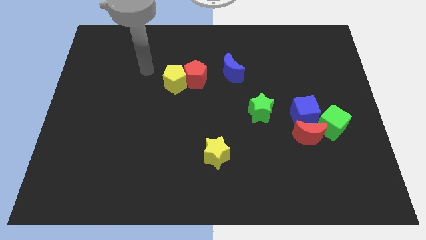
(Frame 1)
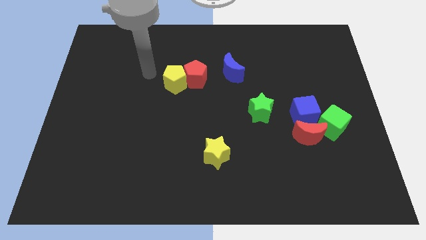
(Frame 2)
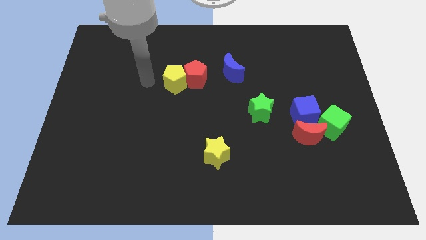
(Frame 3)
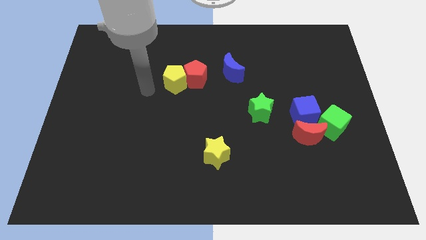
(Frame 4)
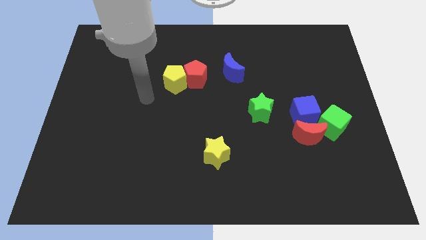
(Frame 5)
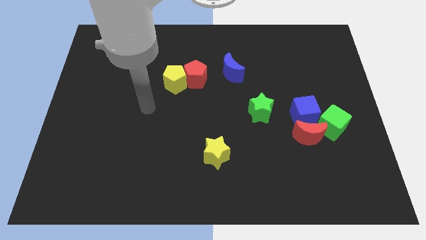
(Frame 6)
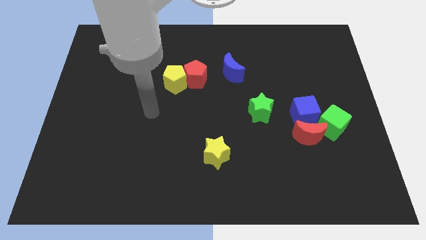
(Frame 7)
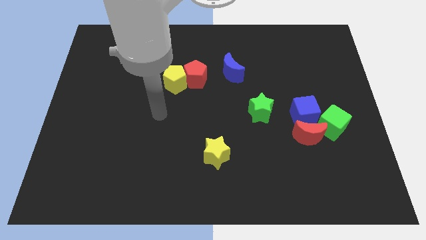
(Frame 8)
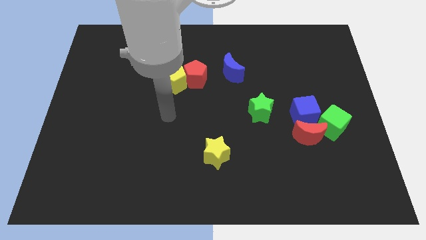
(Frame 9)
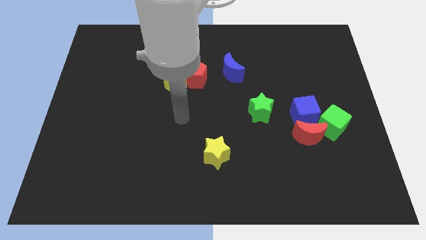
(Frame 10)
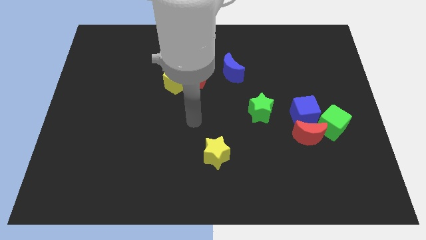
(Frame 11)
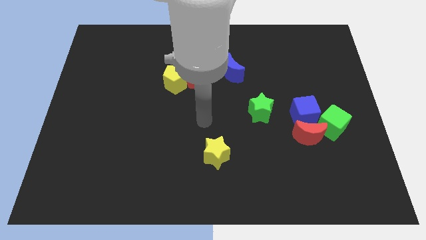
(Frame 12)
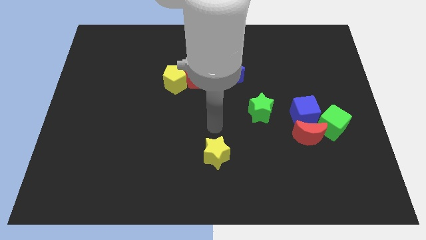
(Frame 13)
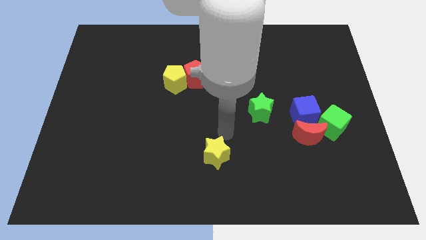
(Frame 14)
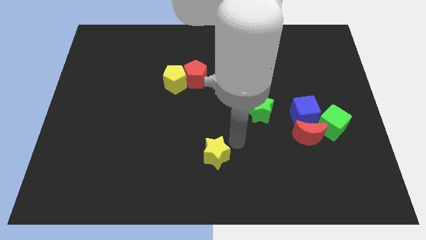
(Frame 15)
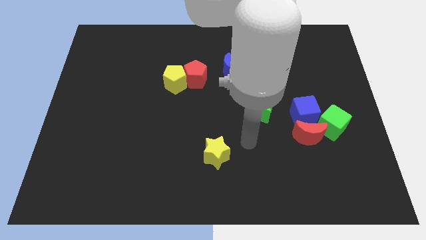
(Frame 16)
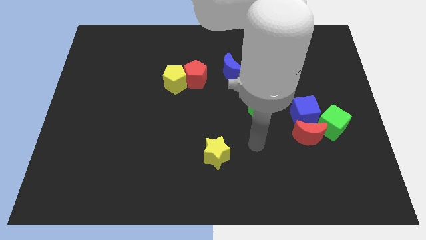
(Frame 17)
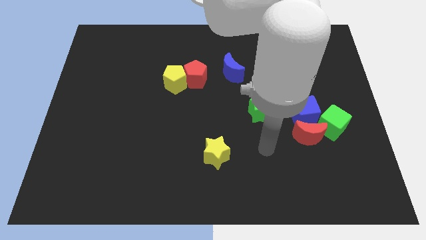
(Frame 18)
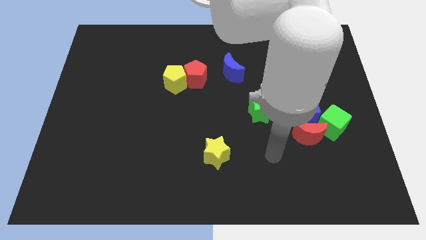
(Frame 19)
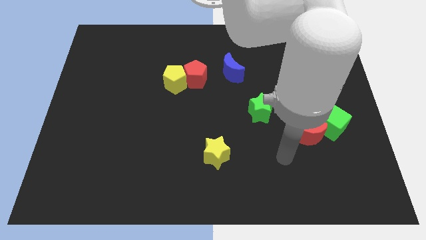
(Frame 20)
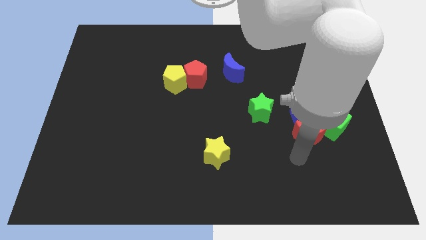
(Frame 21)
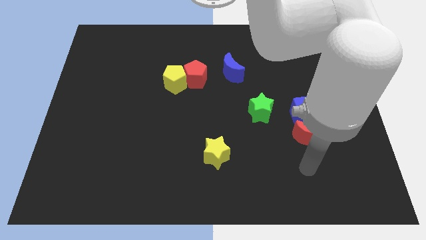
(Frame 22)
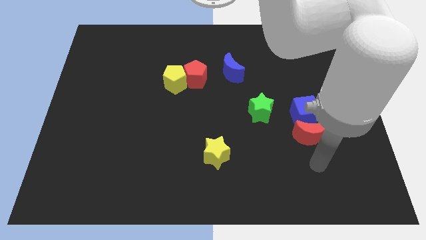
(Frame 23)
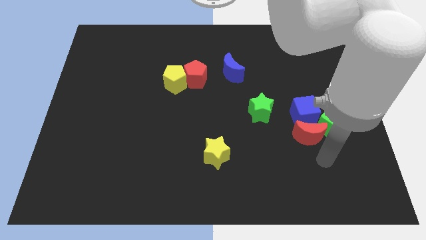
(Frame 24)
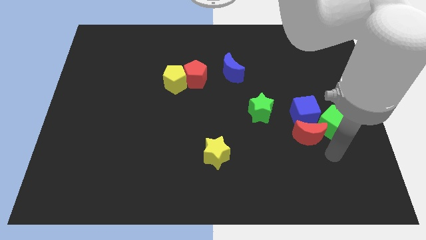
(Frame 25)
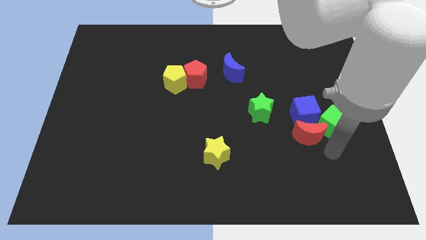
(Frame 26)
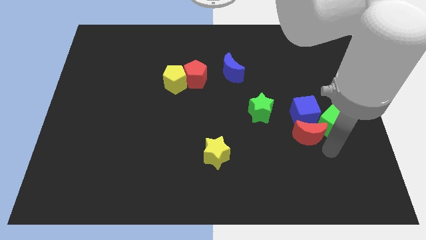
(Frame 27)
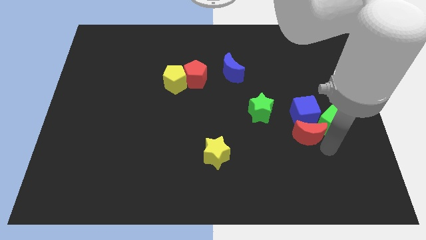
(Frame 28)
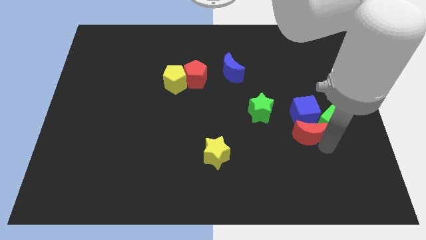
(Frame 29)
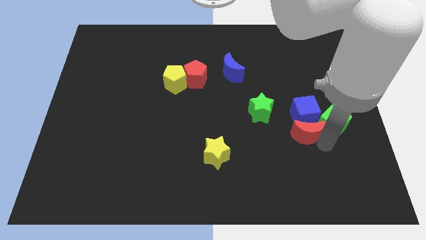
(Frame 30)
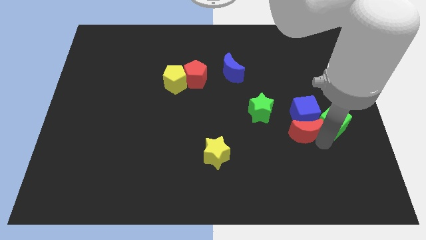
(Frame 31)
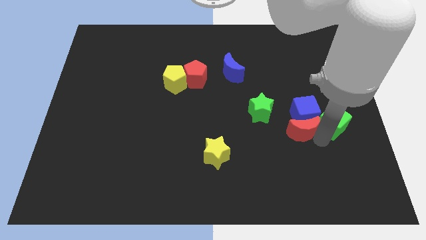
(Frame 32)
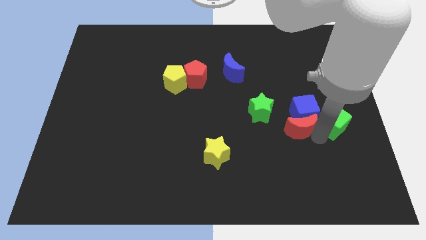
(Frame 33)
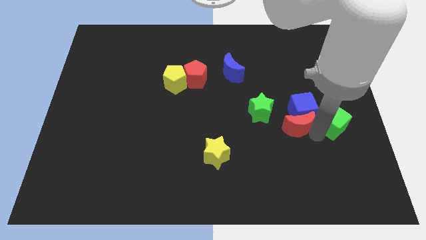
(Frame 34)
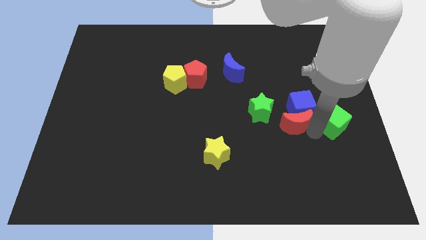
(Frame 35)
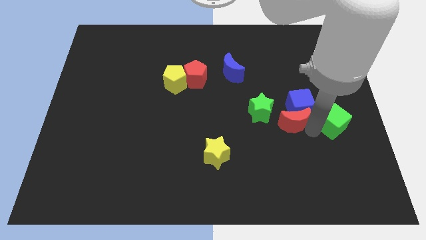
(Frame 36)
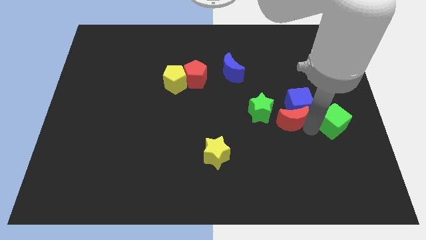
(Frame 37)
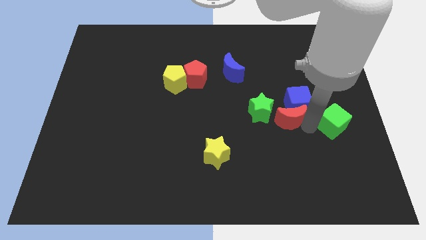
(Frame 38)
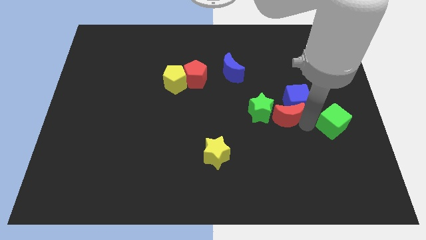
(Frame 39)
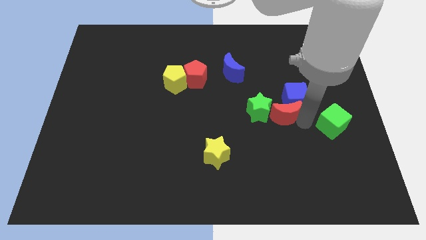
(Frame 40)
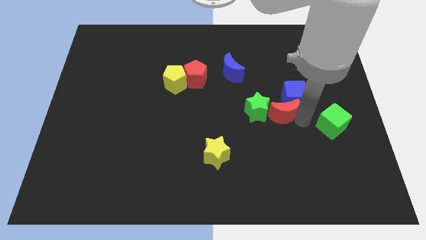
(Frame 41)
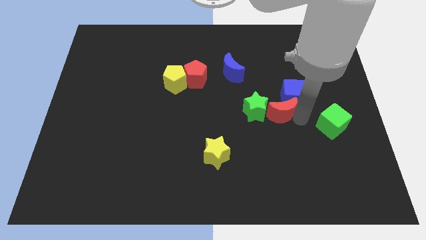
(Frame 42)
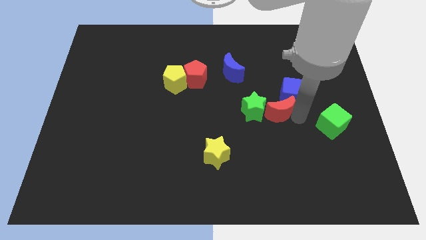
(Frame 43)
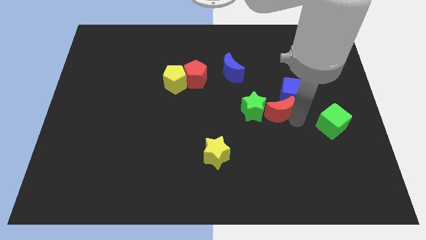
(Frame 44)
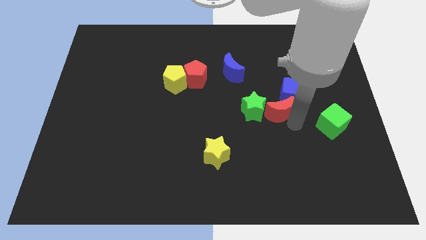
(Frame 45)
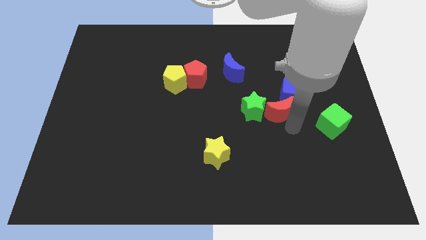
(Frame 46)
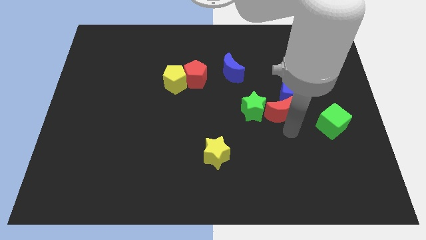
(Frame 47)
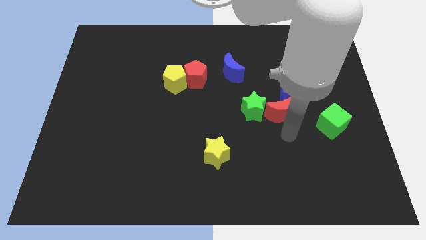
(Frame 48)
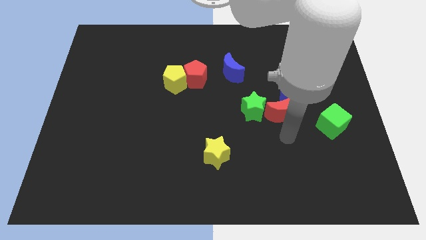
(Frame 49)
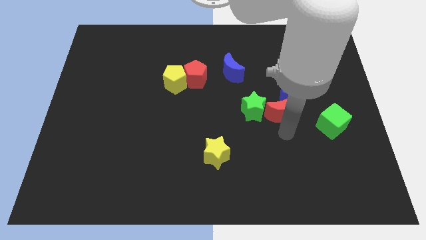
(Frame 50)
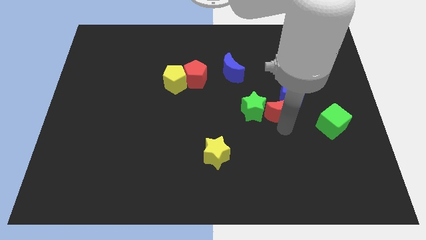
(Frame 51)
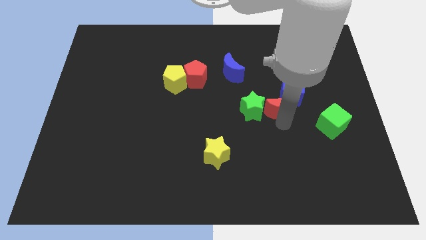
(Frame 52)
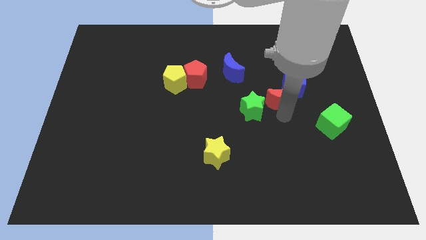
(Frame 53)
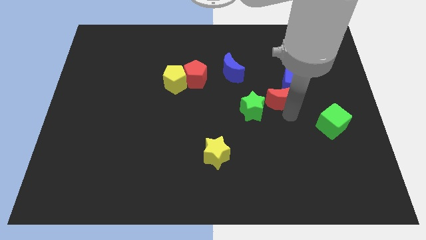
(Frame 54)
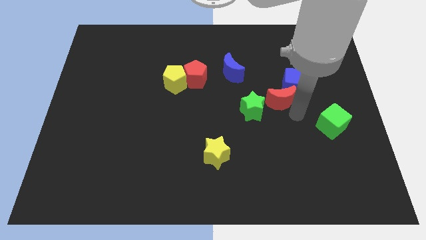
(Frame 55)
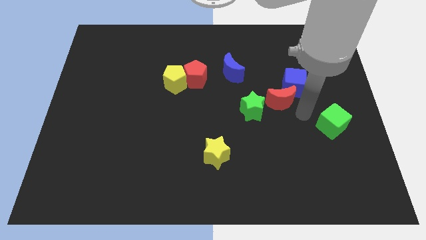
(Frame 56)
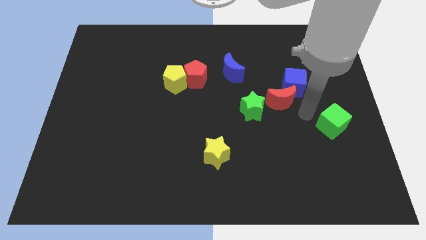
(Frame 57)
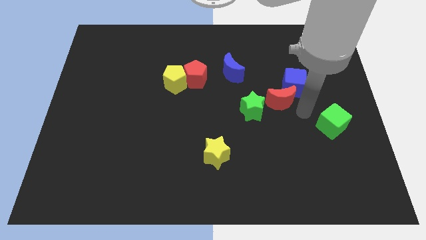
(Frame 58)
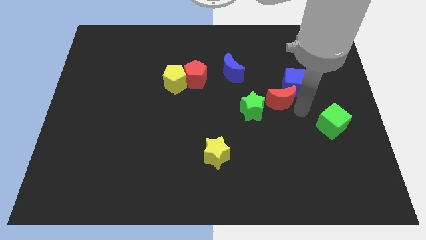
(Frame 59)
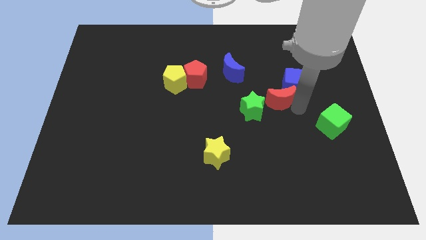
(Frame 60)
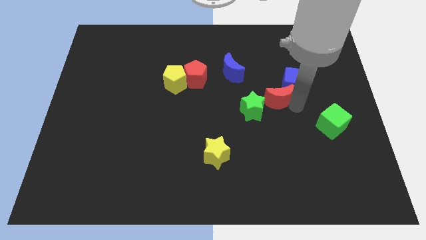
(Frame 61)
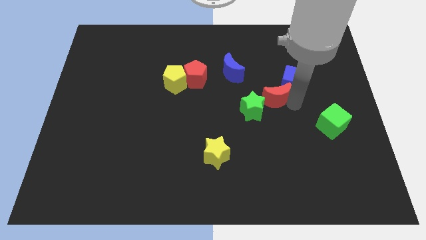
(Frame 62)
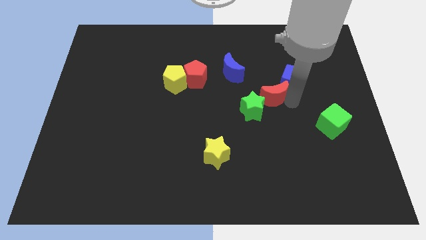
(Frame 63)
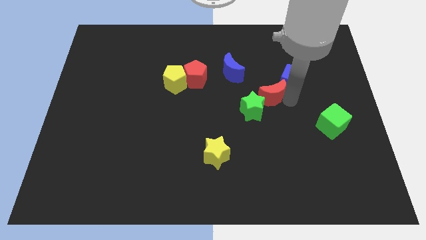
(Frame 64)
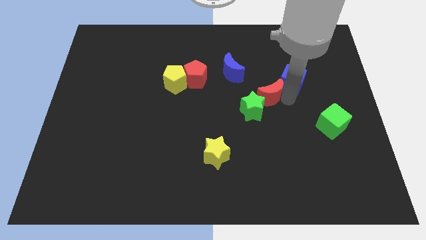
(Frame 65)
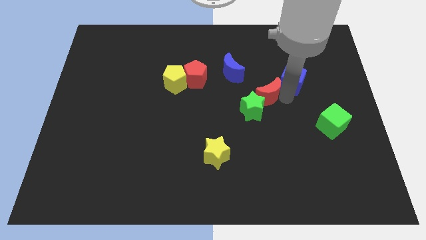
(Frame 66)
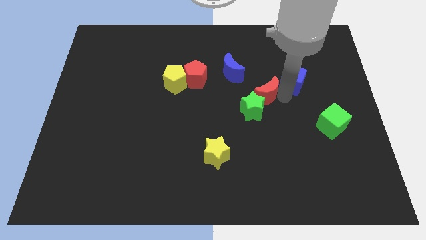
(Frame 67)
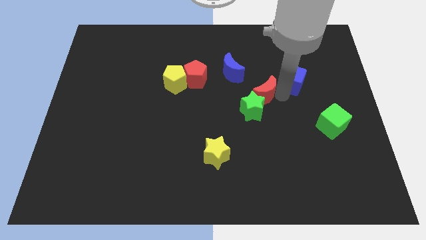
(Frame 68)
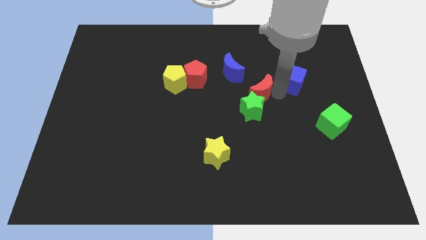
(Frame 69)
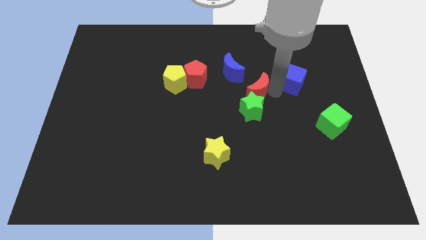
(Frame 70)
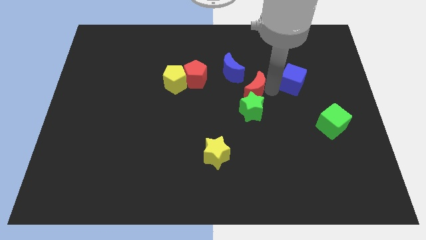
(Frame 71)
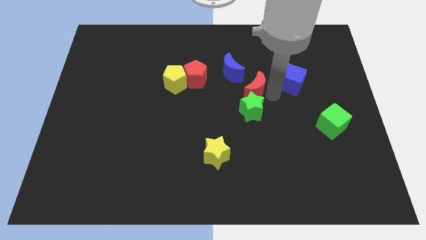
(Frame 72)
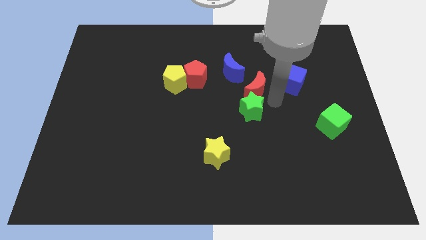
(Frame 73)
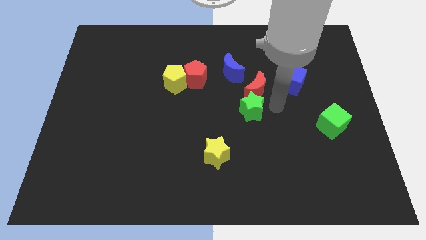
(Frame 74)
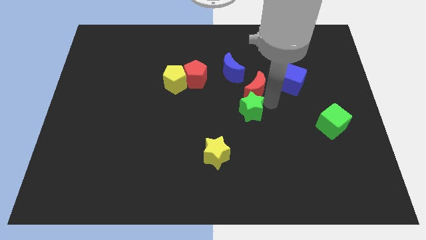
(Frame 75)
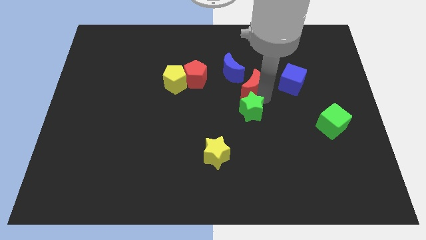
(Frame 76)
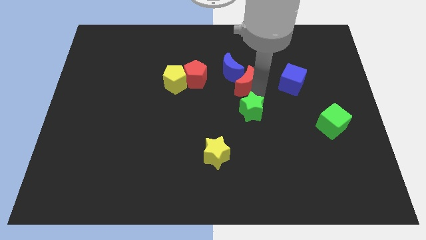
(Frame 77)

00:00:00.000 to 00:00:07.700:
move the red moon towards the blue moon
